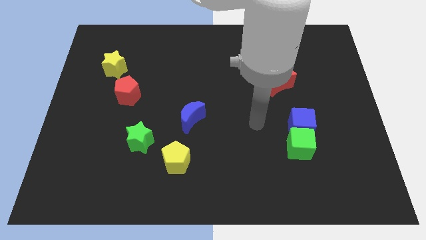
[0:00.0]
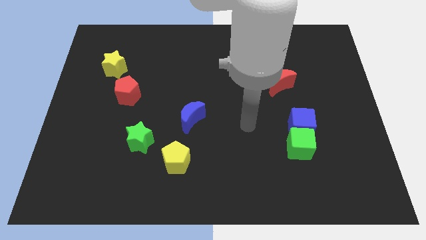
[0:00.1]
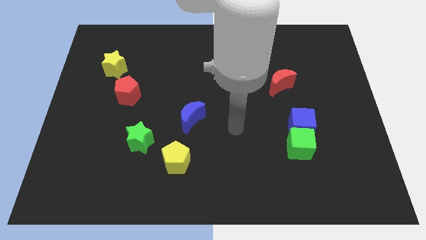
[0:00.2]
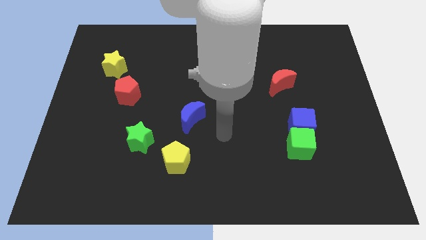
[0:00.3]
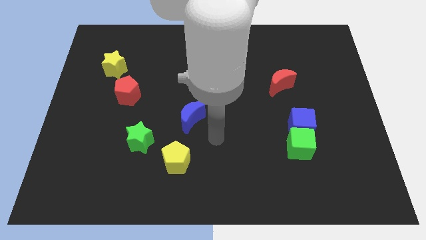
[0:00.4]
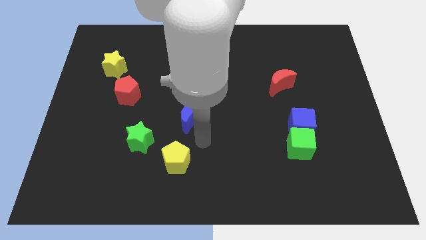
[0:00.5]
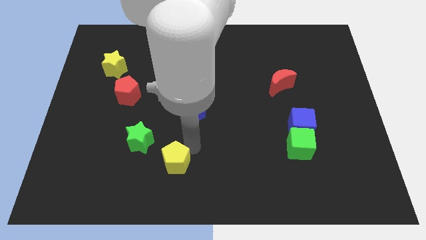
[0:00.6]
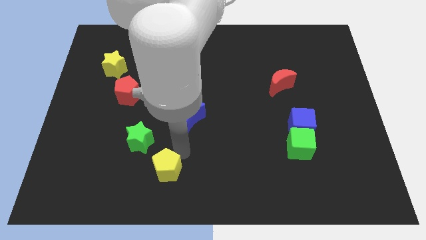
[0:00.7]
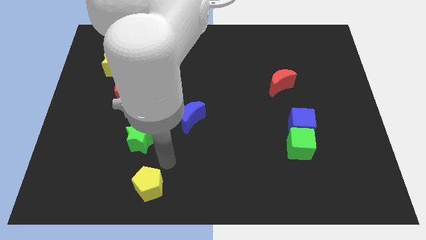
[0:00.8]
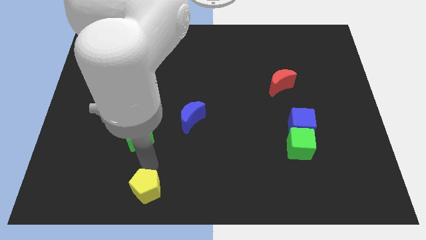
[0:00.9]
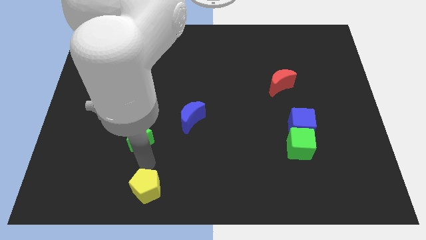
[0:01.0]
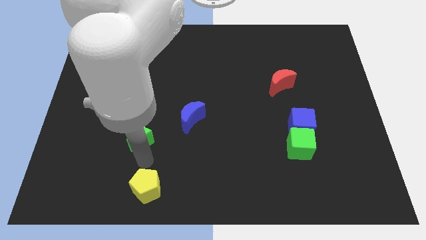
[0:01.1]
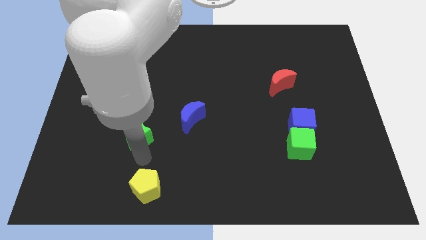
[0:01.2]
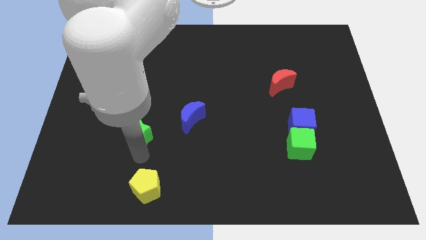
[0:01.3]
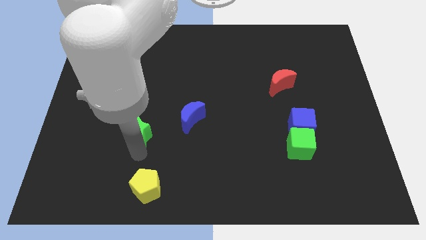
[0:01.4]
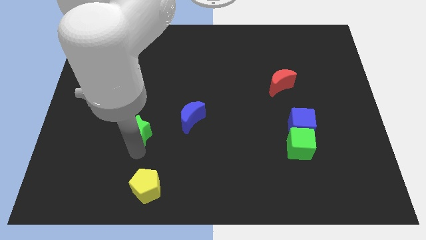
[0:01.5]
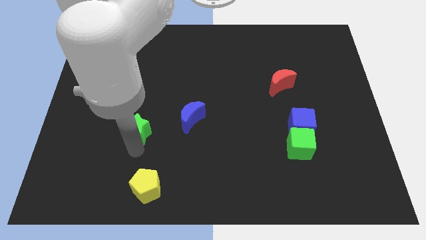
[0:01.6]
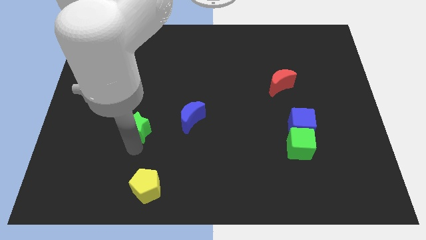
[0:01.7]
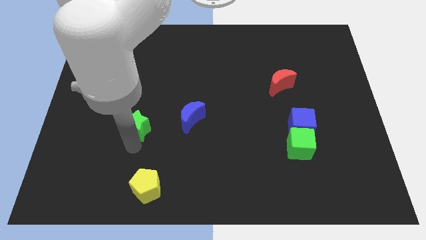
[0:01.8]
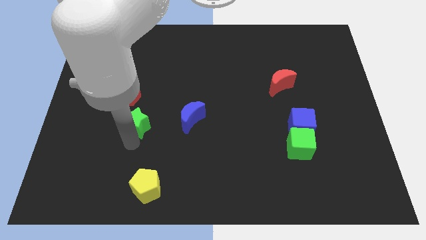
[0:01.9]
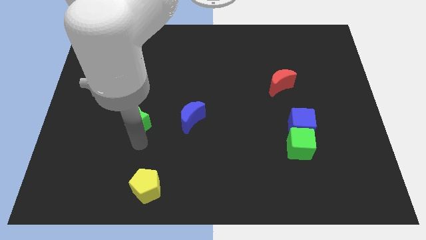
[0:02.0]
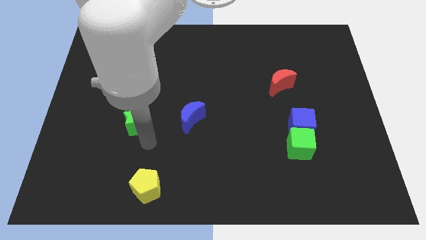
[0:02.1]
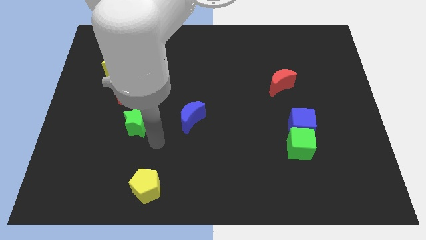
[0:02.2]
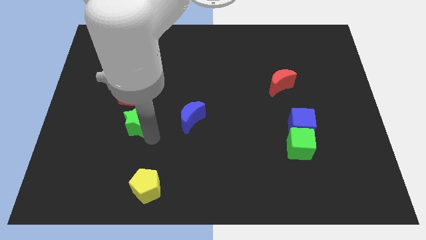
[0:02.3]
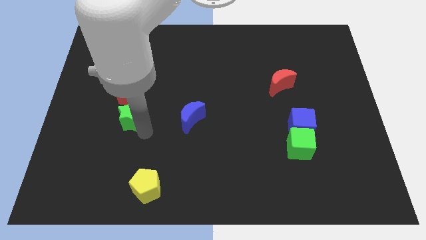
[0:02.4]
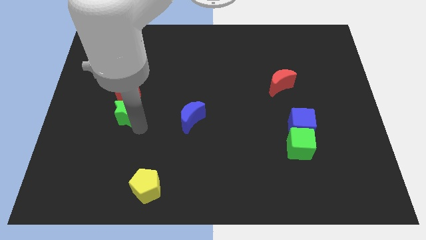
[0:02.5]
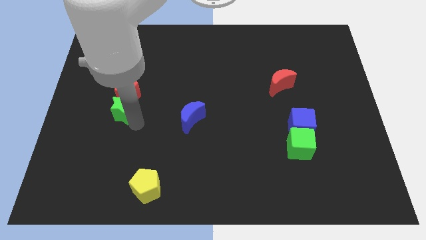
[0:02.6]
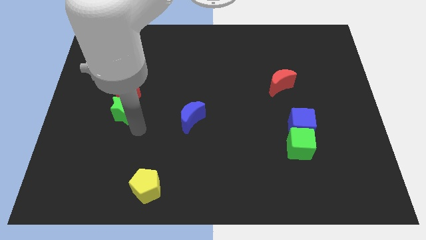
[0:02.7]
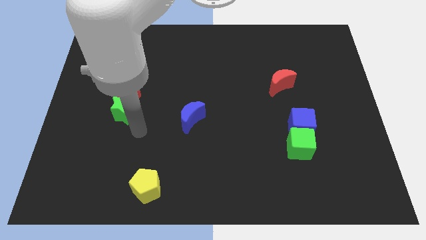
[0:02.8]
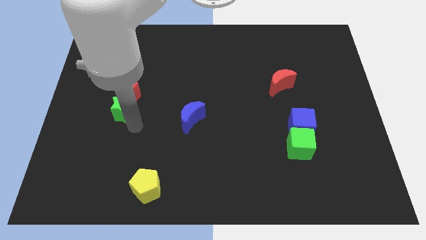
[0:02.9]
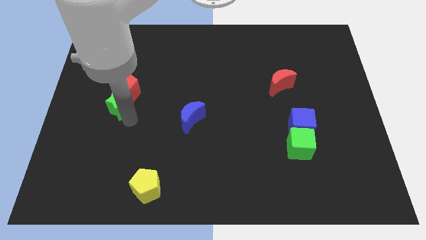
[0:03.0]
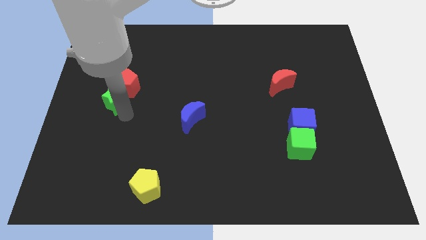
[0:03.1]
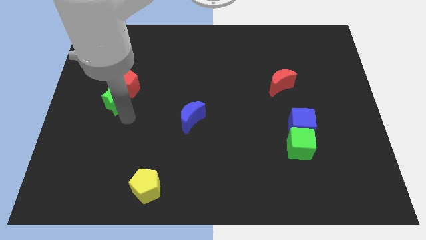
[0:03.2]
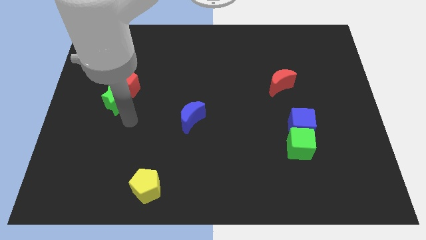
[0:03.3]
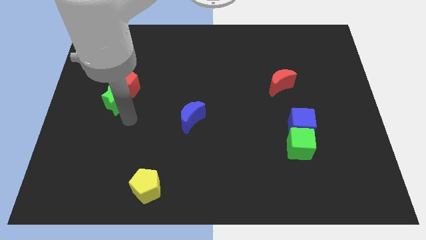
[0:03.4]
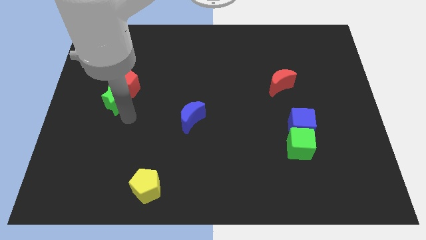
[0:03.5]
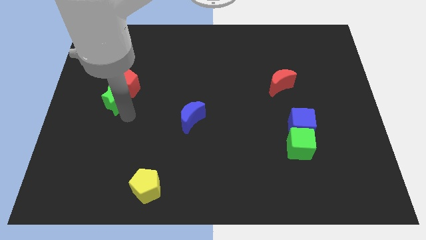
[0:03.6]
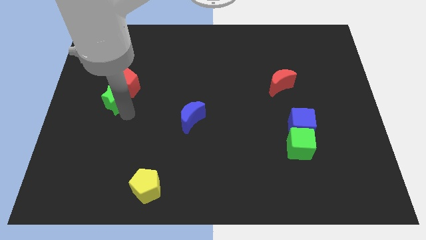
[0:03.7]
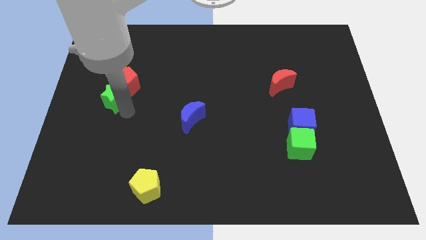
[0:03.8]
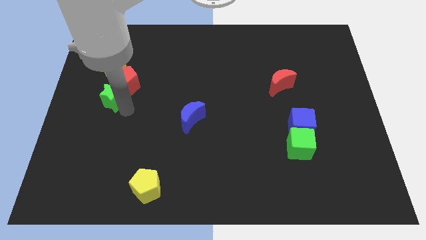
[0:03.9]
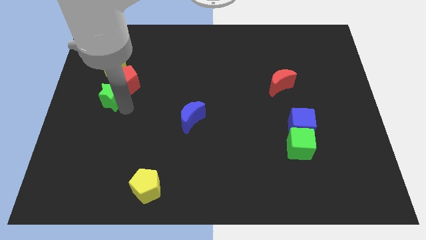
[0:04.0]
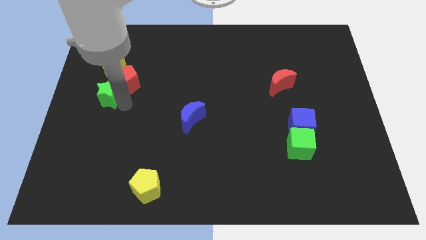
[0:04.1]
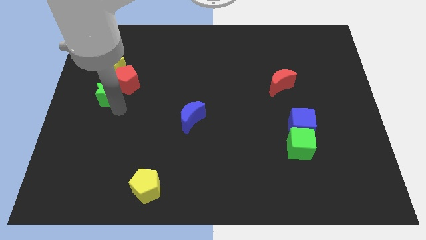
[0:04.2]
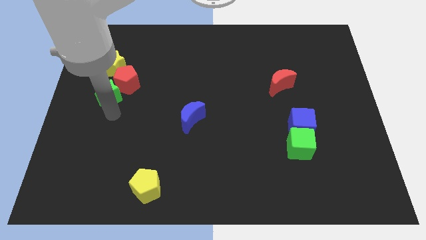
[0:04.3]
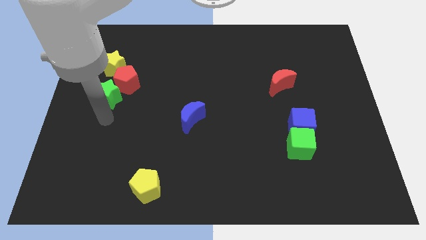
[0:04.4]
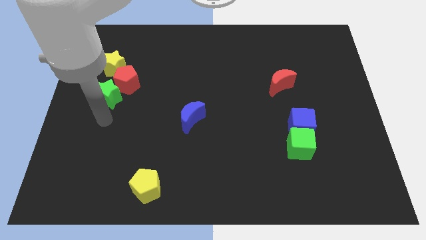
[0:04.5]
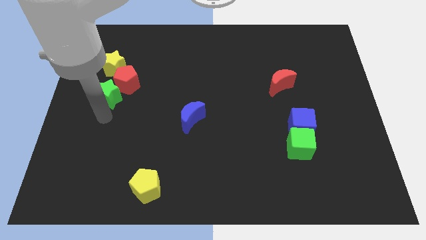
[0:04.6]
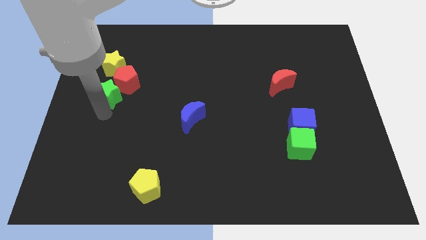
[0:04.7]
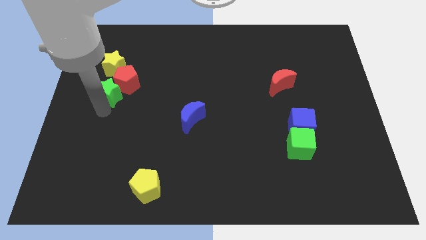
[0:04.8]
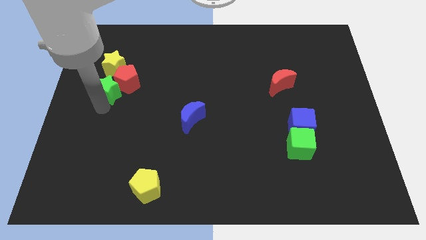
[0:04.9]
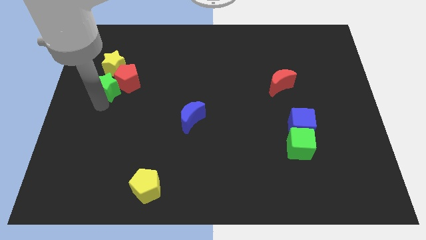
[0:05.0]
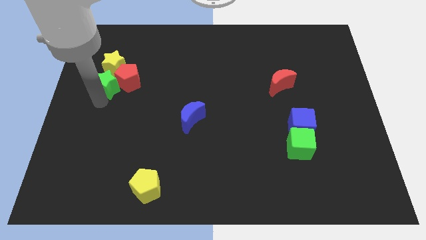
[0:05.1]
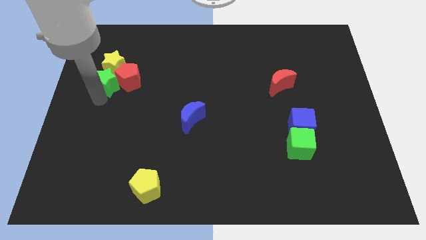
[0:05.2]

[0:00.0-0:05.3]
push the green star close to the yellow star

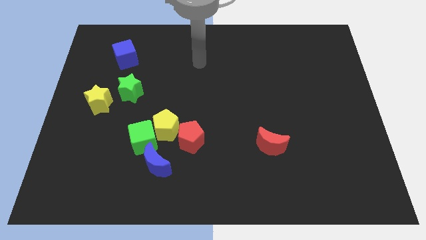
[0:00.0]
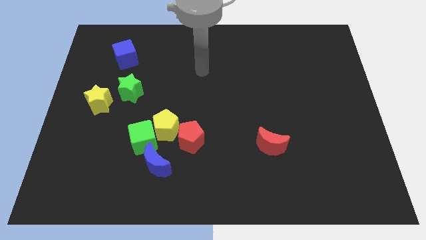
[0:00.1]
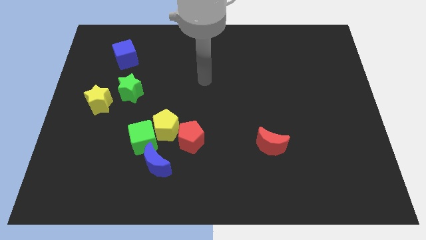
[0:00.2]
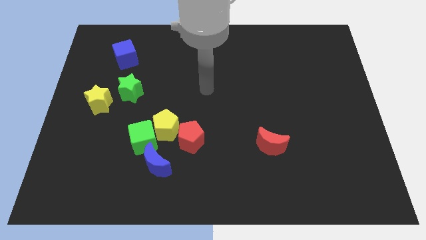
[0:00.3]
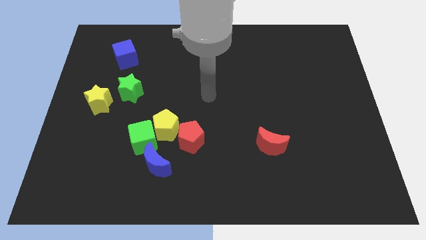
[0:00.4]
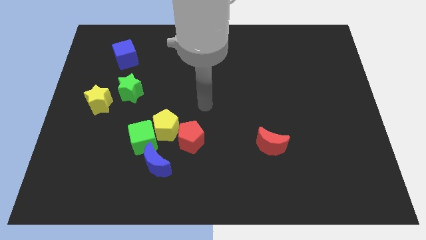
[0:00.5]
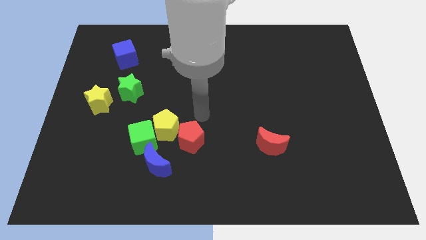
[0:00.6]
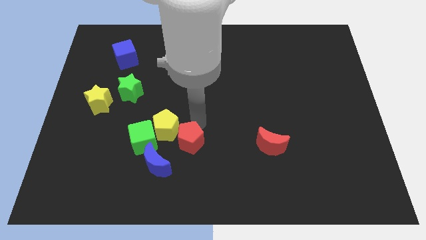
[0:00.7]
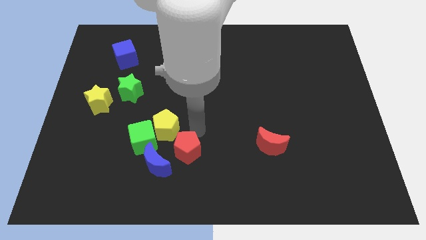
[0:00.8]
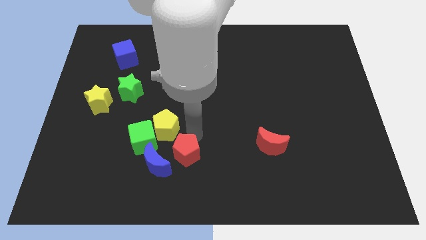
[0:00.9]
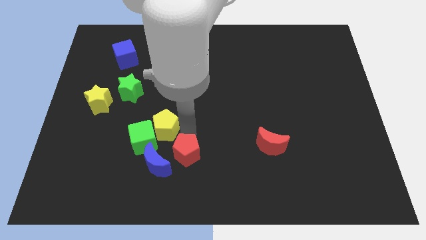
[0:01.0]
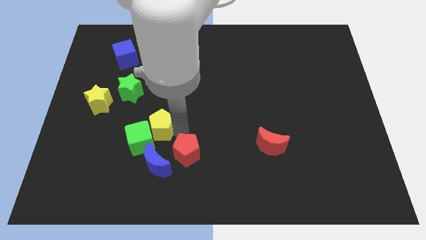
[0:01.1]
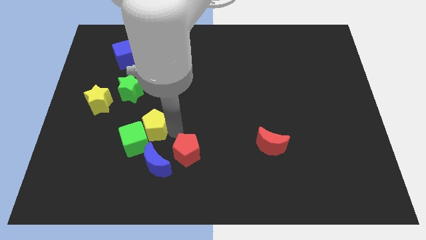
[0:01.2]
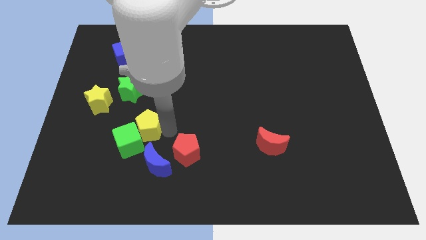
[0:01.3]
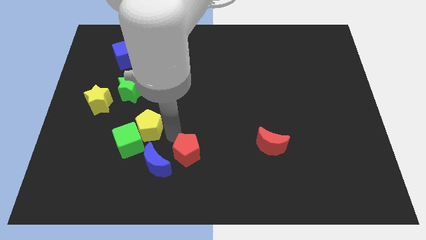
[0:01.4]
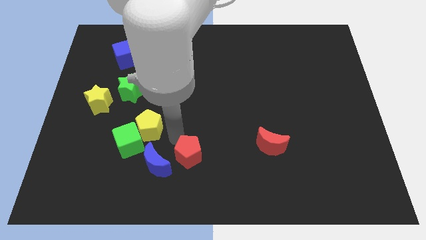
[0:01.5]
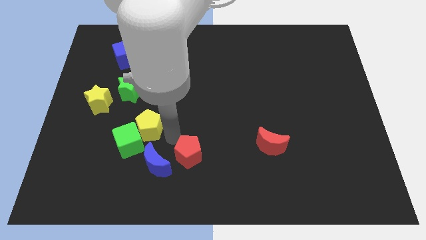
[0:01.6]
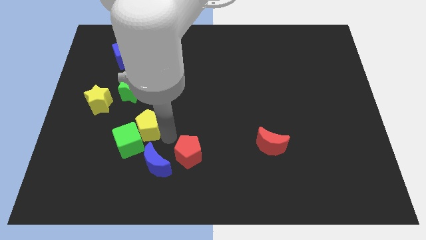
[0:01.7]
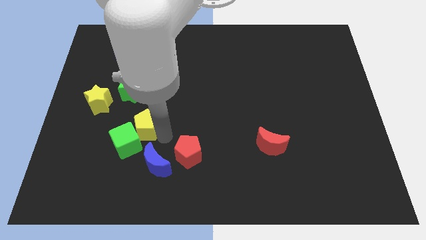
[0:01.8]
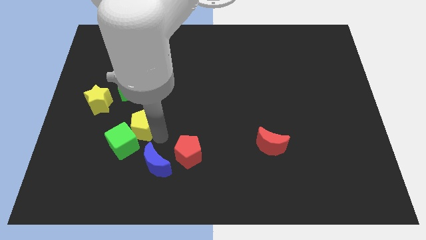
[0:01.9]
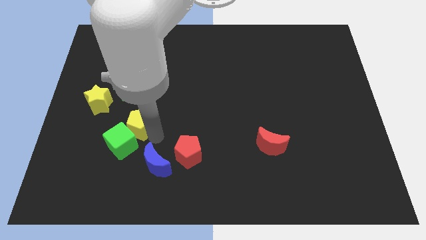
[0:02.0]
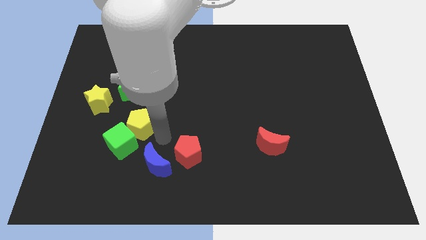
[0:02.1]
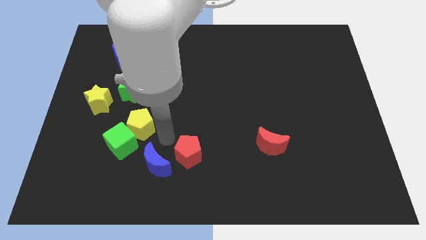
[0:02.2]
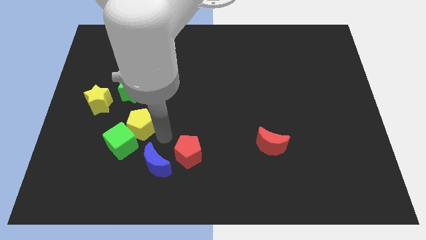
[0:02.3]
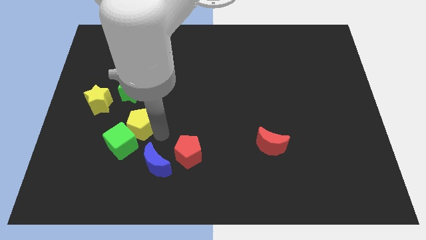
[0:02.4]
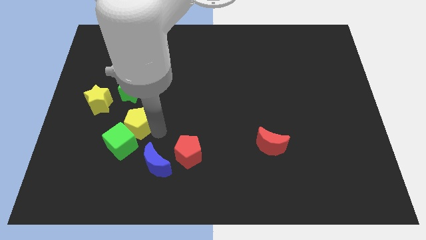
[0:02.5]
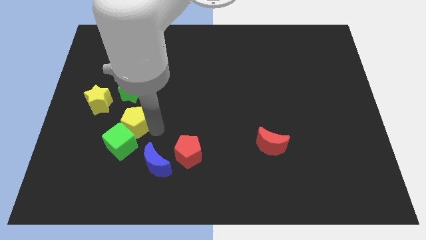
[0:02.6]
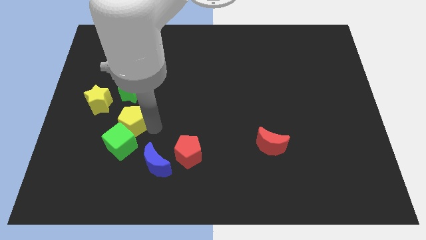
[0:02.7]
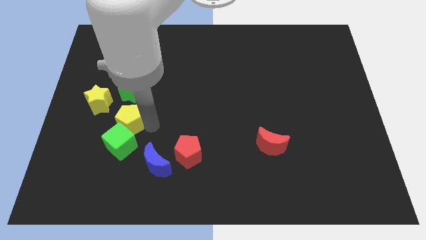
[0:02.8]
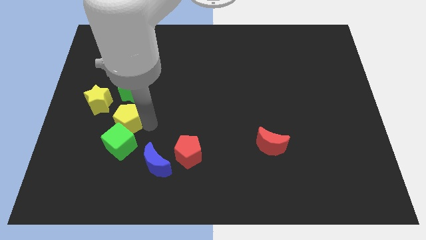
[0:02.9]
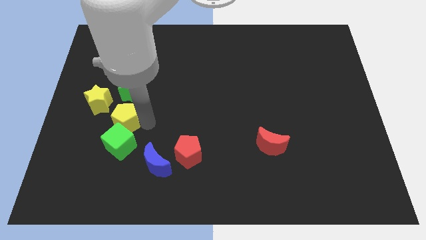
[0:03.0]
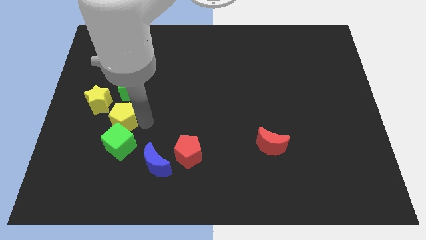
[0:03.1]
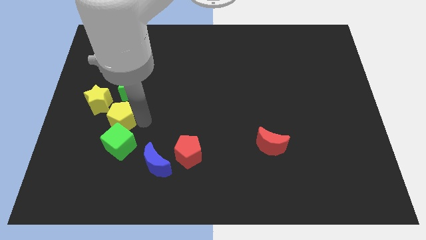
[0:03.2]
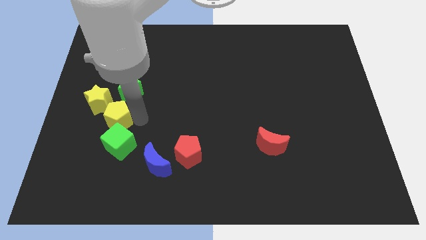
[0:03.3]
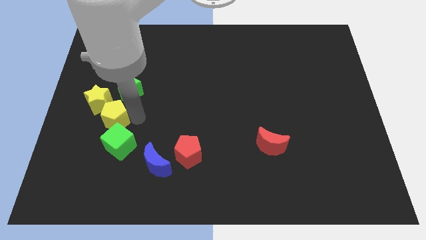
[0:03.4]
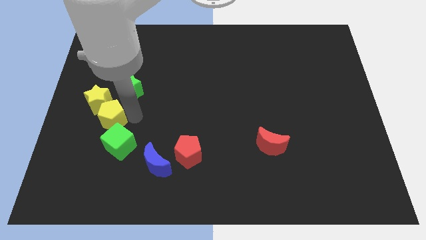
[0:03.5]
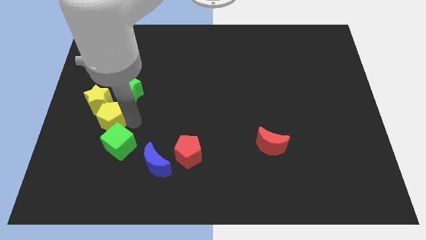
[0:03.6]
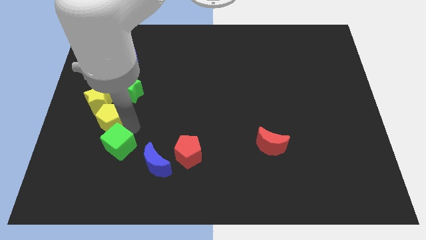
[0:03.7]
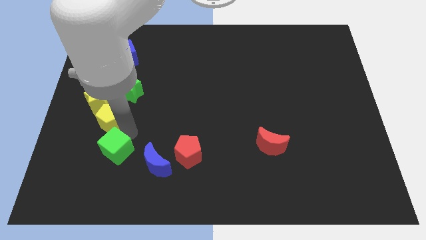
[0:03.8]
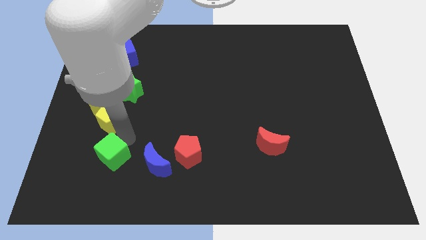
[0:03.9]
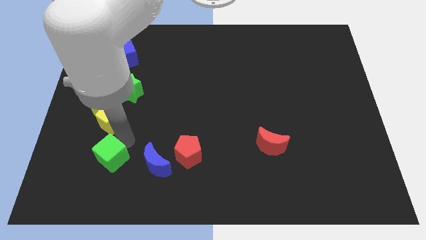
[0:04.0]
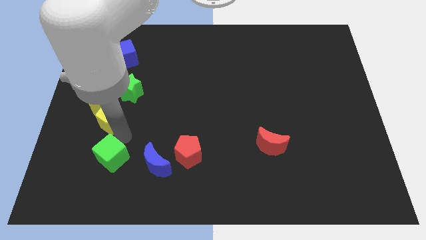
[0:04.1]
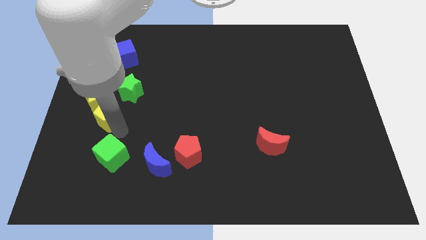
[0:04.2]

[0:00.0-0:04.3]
push the yellow pentagon to the yellow star
